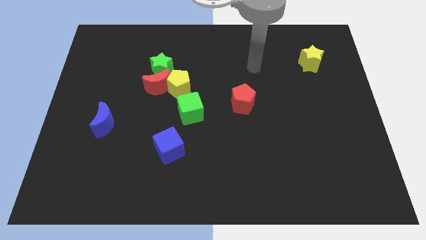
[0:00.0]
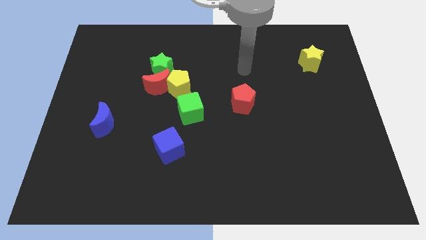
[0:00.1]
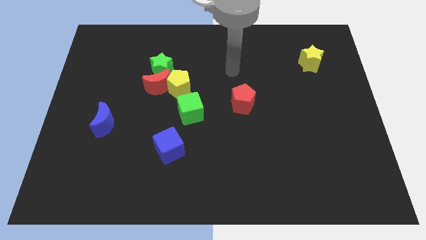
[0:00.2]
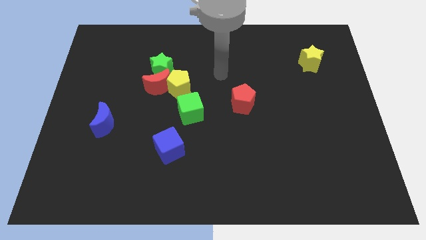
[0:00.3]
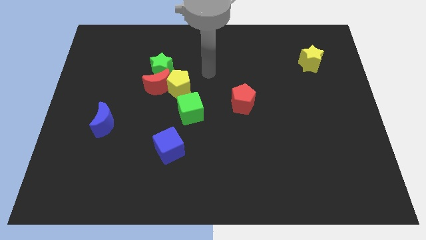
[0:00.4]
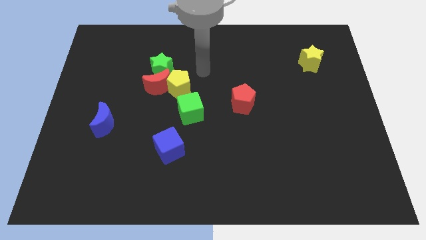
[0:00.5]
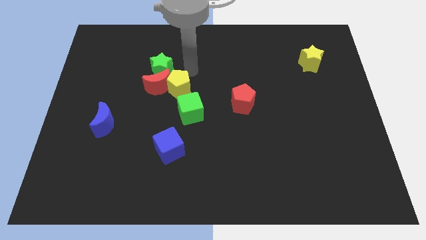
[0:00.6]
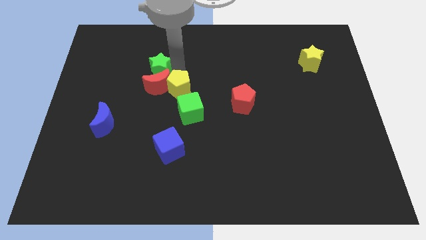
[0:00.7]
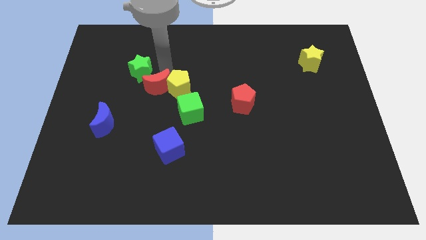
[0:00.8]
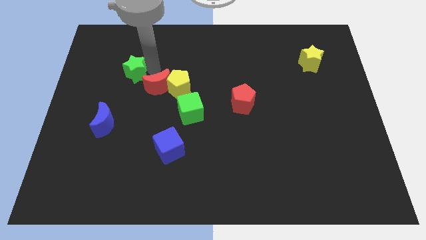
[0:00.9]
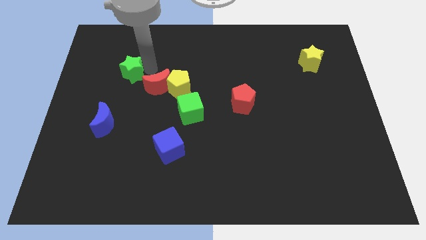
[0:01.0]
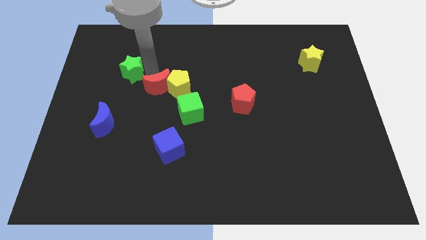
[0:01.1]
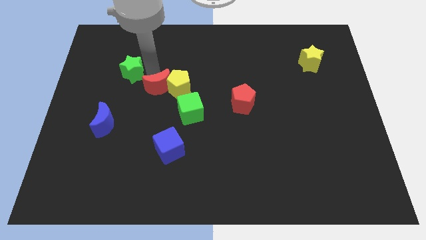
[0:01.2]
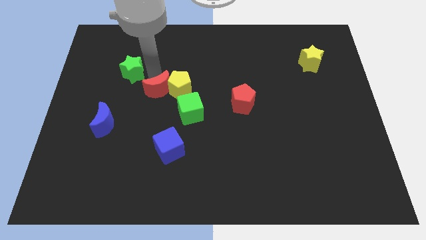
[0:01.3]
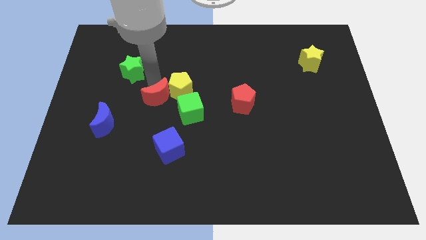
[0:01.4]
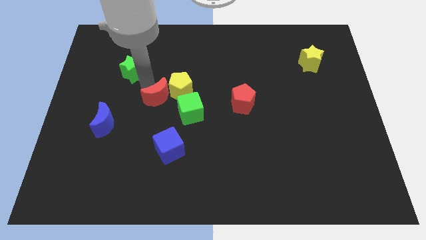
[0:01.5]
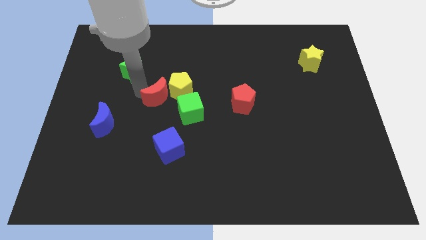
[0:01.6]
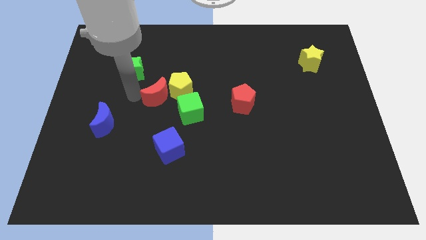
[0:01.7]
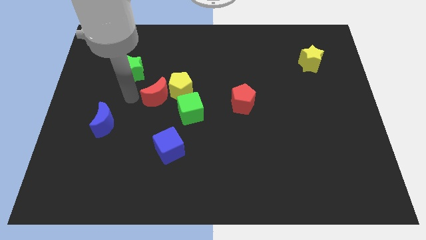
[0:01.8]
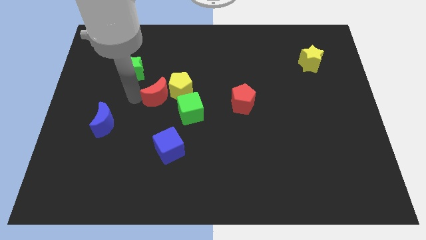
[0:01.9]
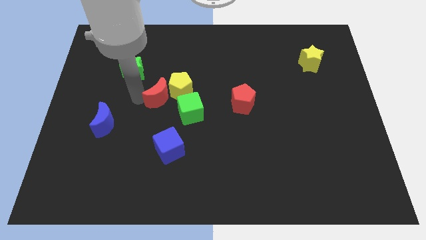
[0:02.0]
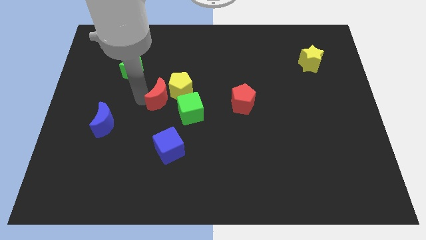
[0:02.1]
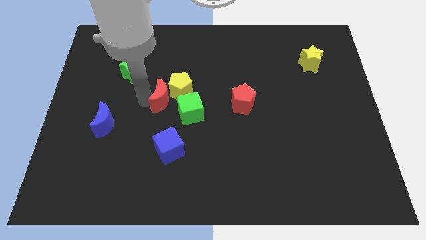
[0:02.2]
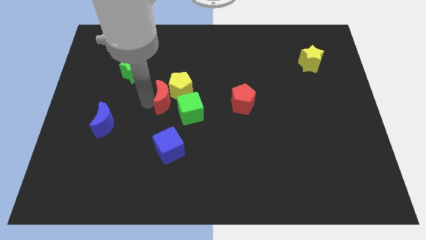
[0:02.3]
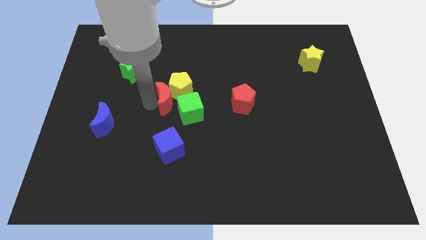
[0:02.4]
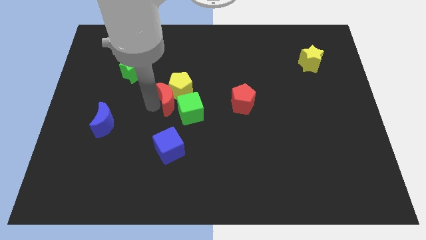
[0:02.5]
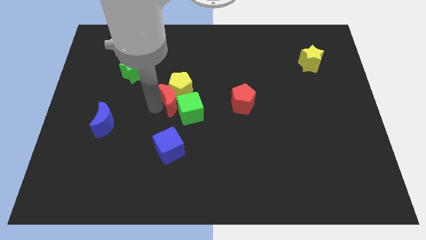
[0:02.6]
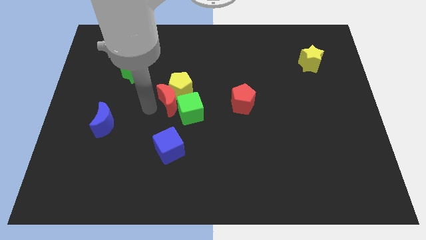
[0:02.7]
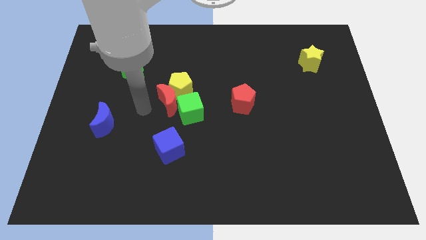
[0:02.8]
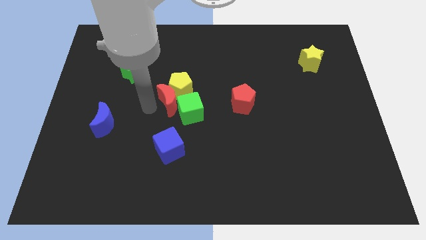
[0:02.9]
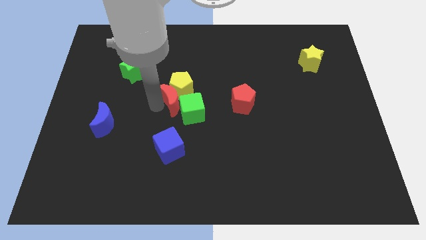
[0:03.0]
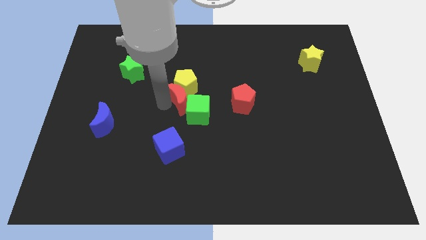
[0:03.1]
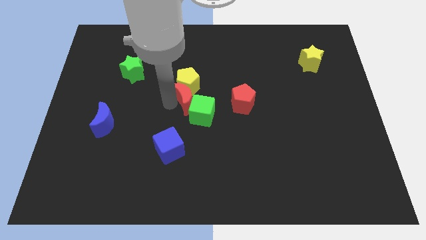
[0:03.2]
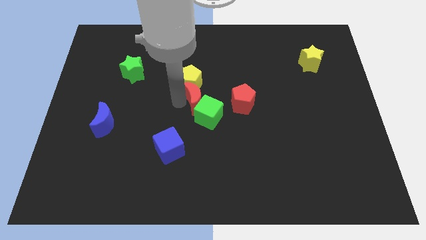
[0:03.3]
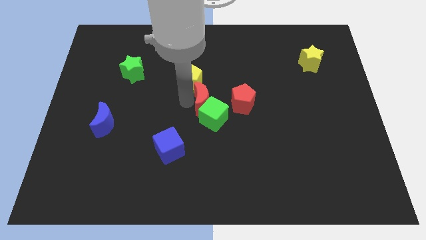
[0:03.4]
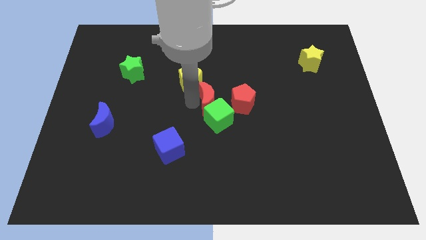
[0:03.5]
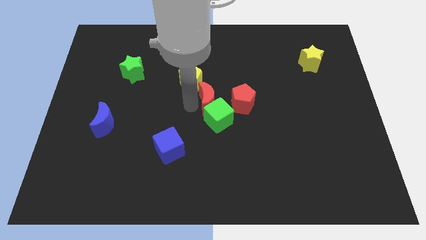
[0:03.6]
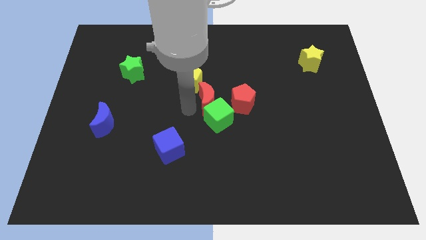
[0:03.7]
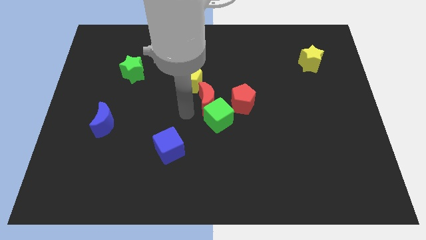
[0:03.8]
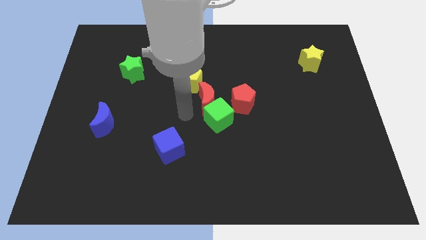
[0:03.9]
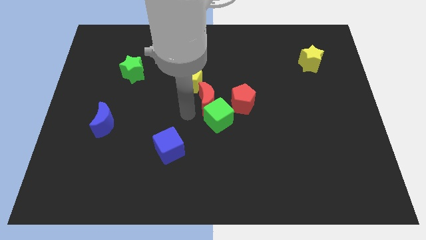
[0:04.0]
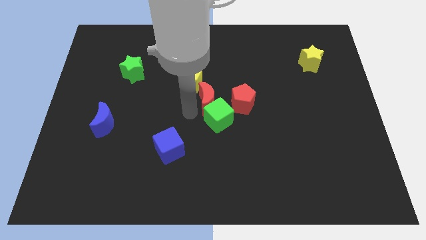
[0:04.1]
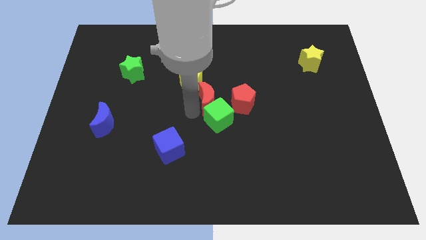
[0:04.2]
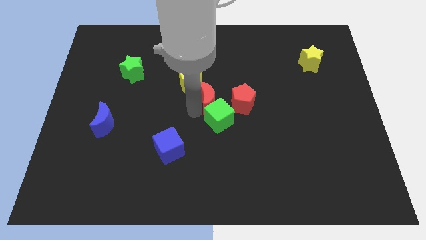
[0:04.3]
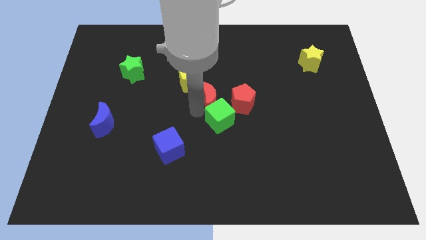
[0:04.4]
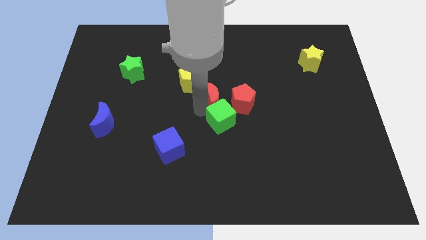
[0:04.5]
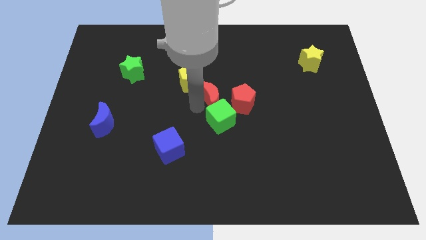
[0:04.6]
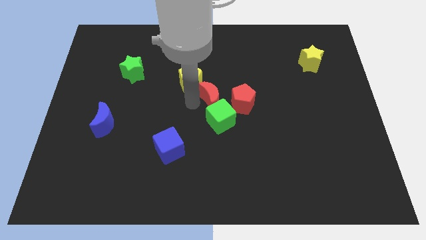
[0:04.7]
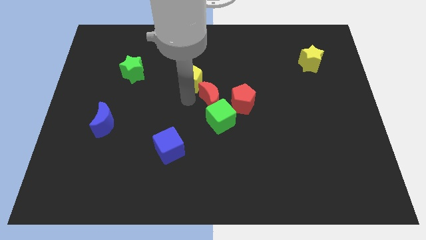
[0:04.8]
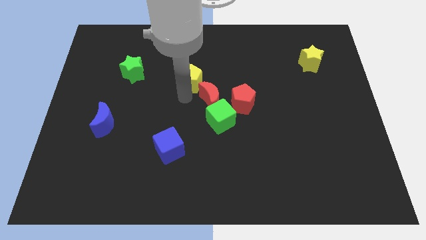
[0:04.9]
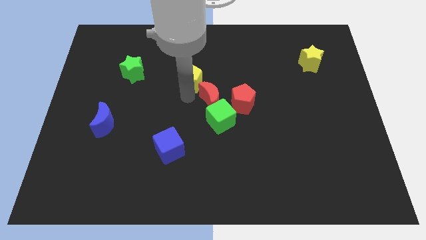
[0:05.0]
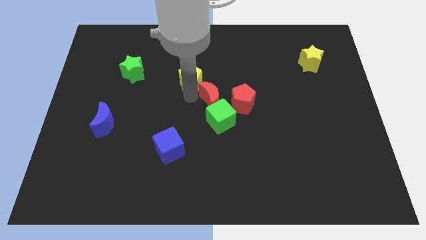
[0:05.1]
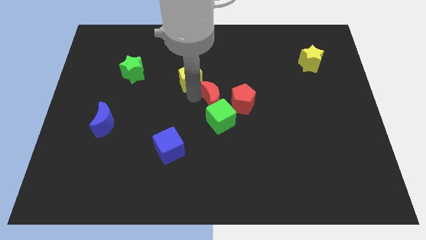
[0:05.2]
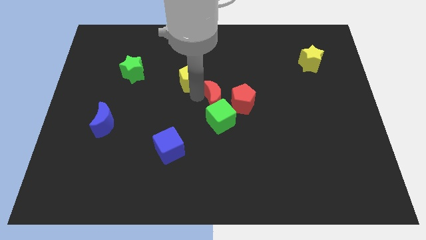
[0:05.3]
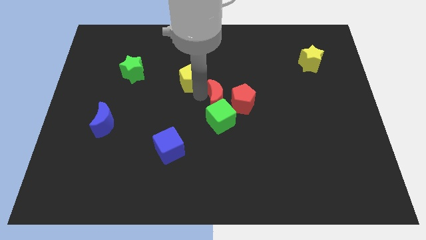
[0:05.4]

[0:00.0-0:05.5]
push the red moon to the red pentagon

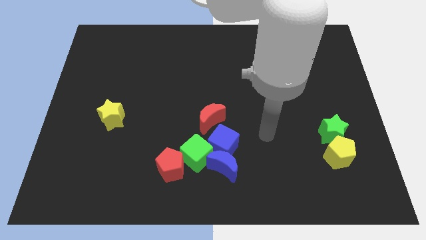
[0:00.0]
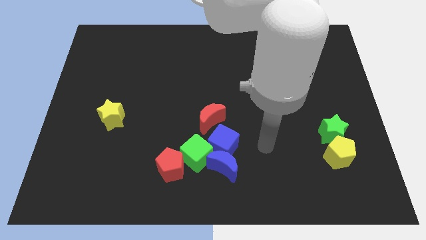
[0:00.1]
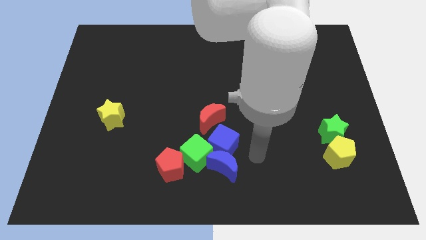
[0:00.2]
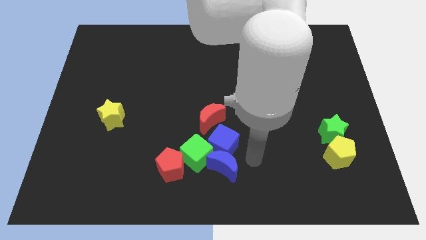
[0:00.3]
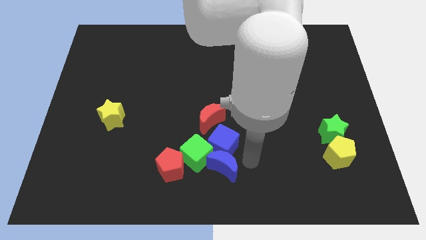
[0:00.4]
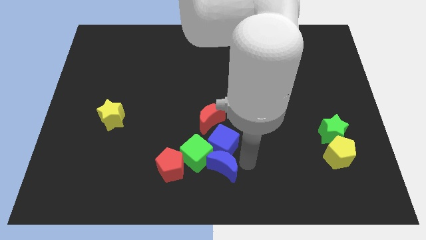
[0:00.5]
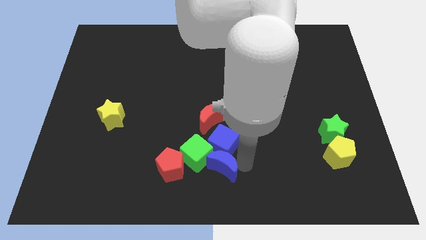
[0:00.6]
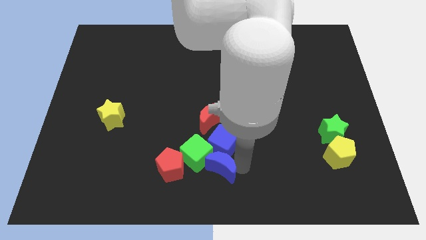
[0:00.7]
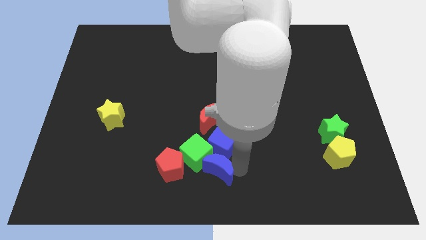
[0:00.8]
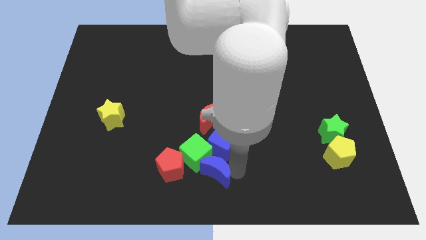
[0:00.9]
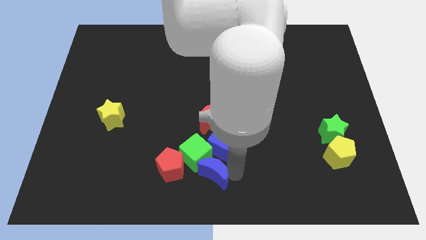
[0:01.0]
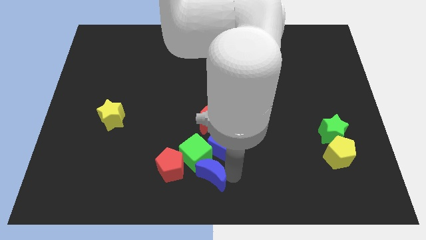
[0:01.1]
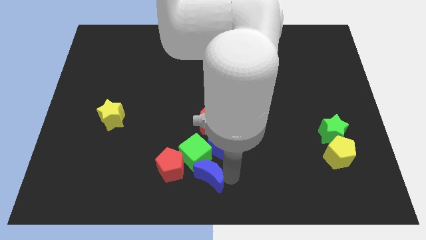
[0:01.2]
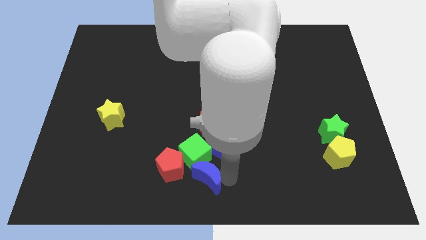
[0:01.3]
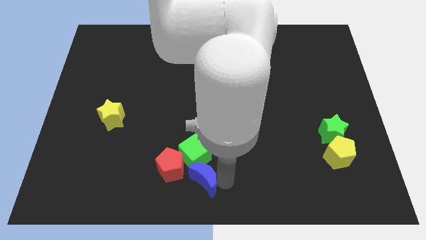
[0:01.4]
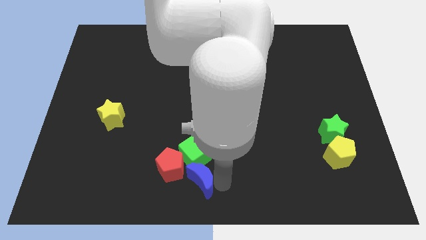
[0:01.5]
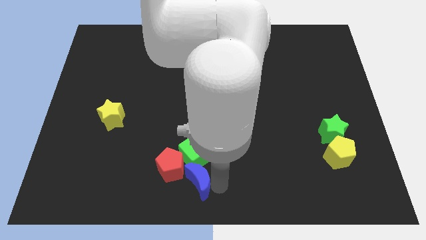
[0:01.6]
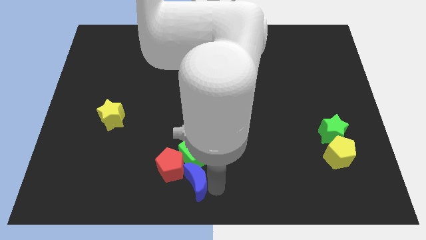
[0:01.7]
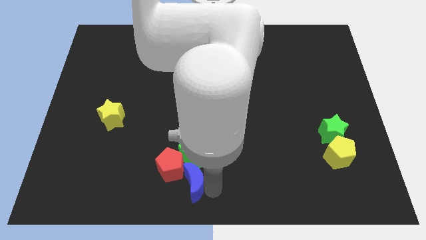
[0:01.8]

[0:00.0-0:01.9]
push the blue moon towards the red pentagon
